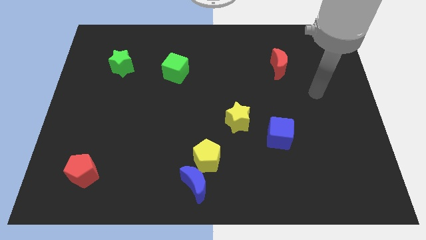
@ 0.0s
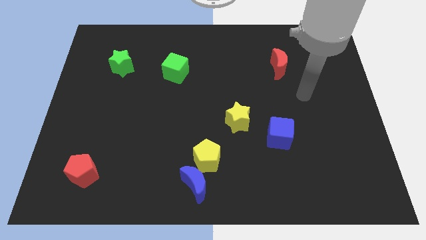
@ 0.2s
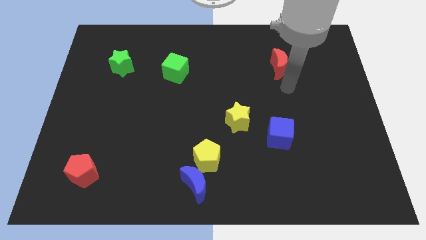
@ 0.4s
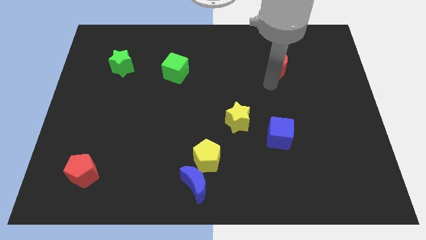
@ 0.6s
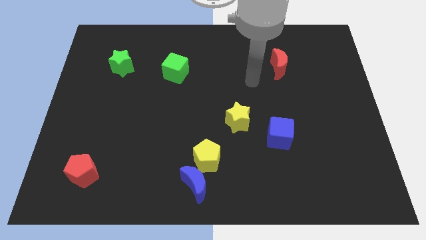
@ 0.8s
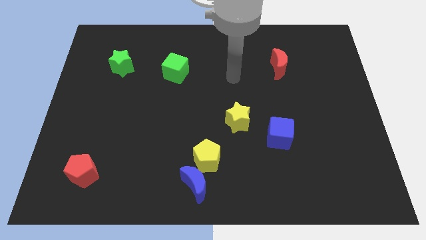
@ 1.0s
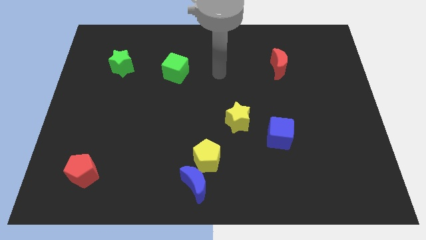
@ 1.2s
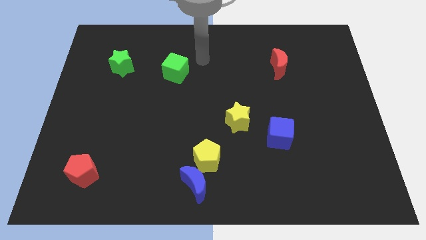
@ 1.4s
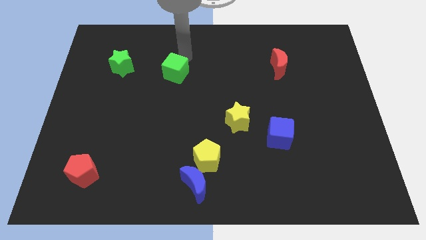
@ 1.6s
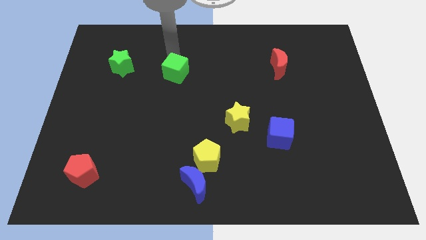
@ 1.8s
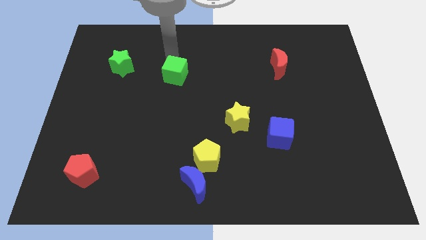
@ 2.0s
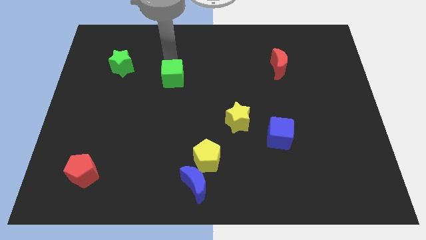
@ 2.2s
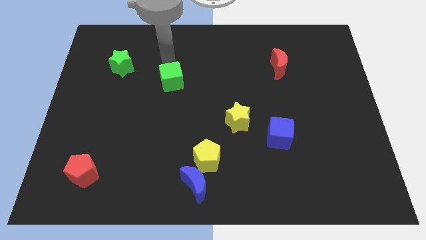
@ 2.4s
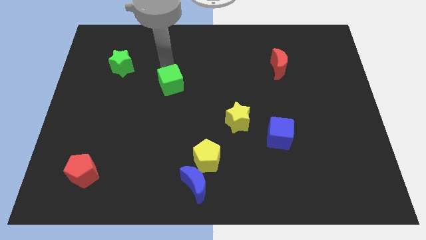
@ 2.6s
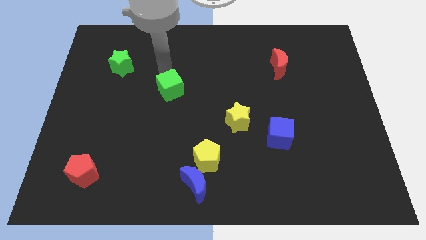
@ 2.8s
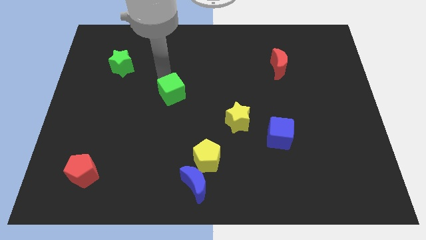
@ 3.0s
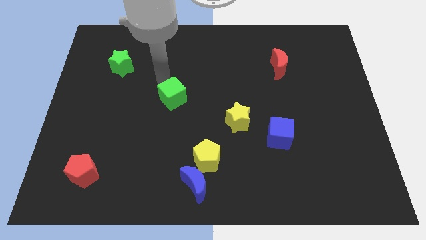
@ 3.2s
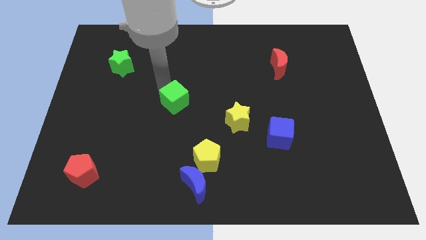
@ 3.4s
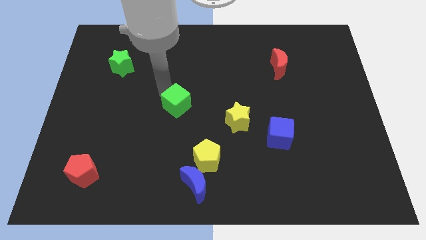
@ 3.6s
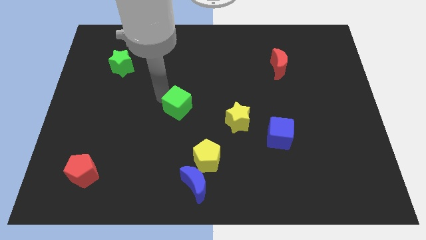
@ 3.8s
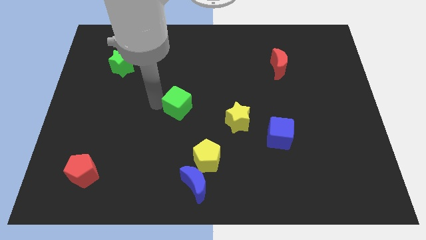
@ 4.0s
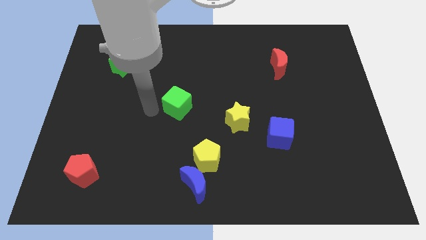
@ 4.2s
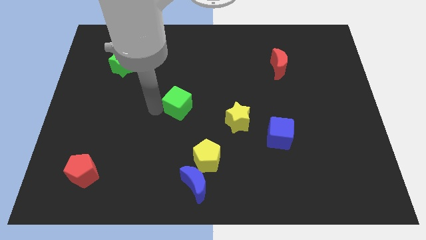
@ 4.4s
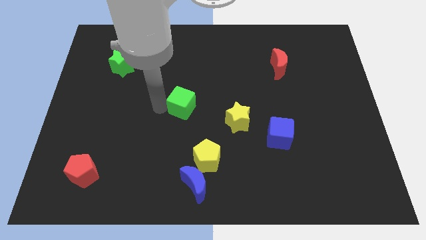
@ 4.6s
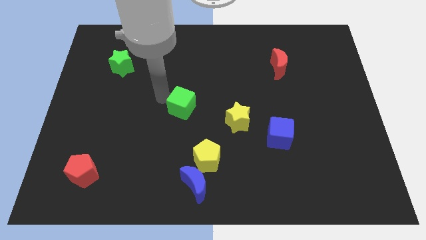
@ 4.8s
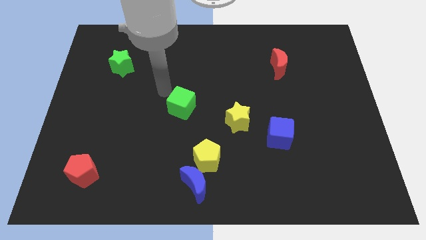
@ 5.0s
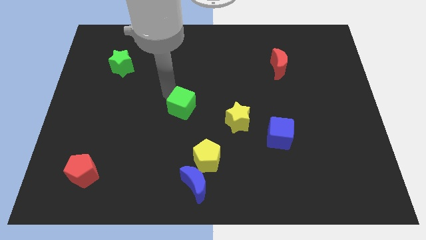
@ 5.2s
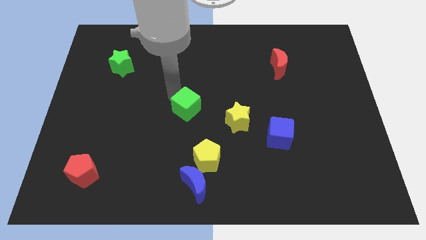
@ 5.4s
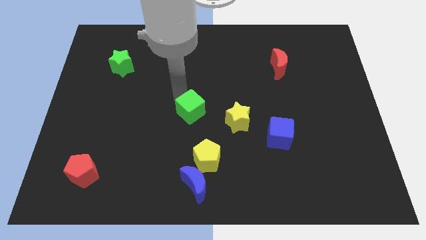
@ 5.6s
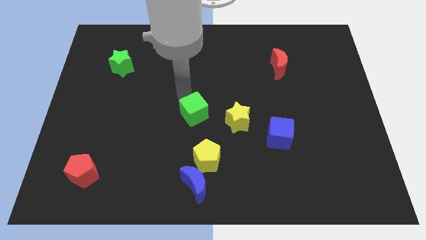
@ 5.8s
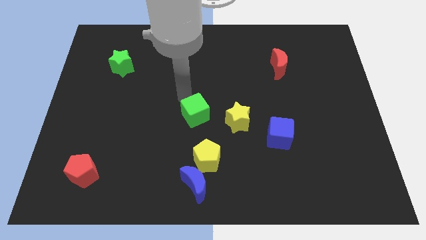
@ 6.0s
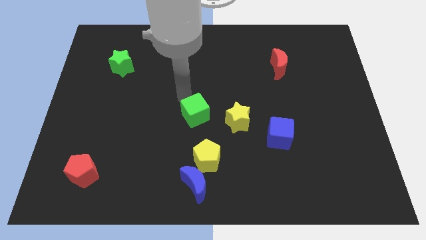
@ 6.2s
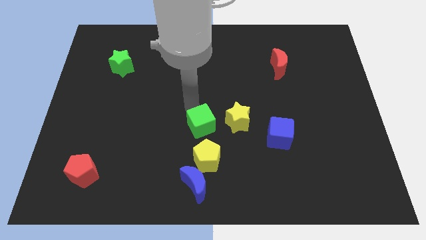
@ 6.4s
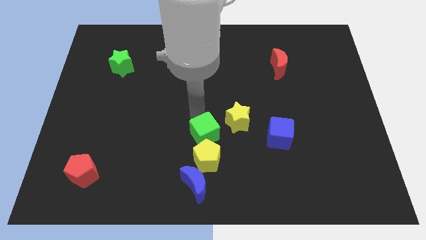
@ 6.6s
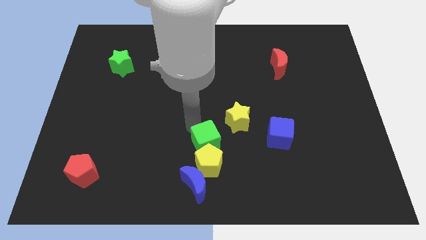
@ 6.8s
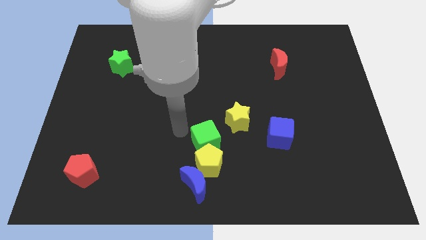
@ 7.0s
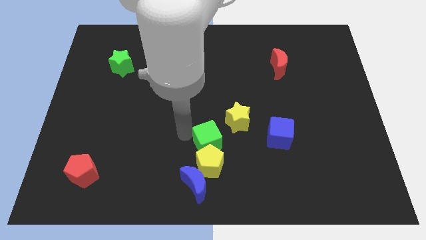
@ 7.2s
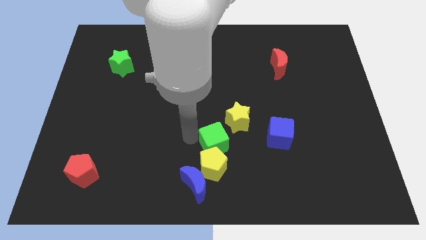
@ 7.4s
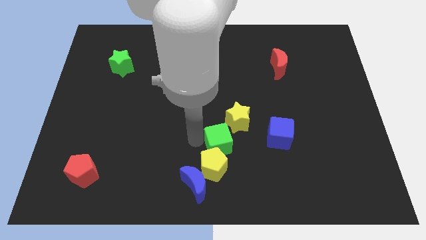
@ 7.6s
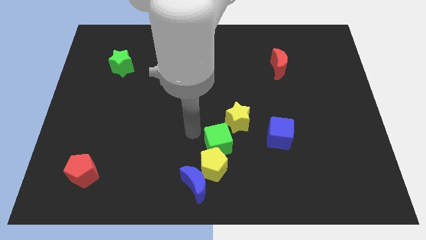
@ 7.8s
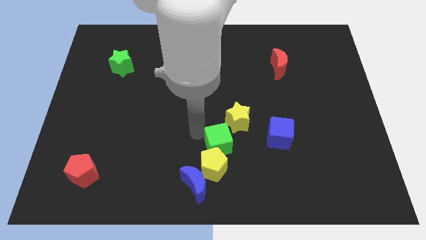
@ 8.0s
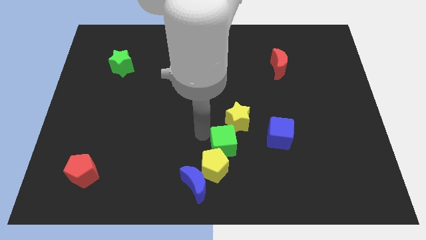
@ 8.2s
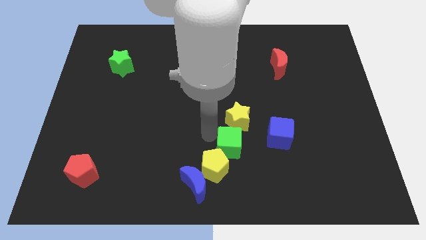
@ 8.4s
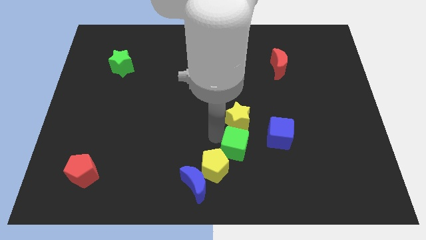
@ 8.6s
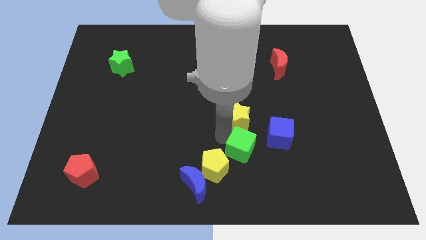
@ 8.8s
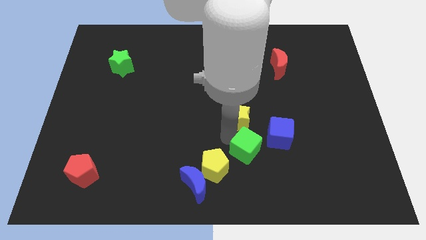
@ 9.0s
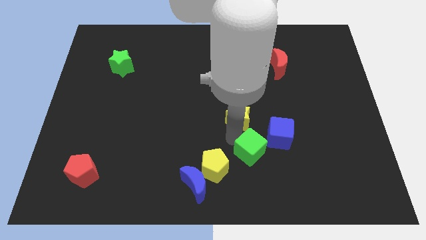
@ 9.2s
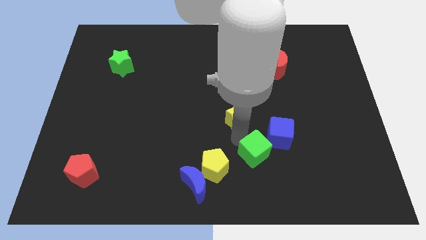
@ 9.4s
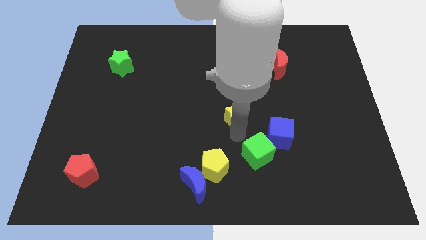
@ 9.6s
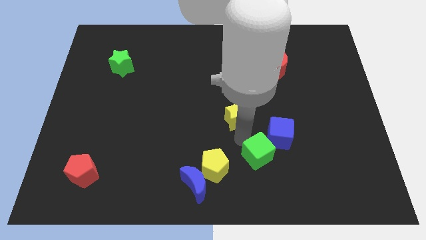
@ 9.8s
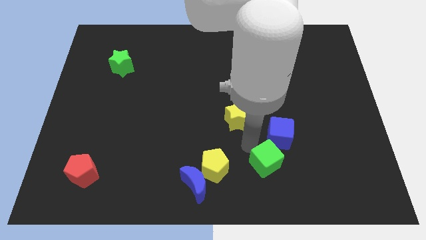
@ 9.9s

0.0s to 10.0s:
move the green cube to the bottom of the blue cube

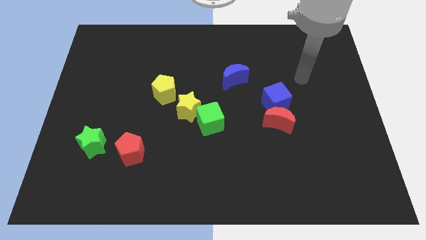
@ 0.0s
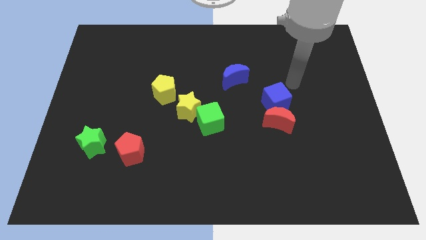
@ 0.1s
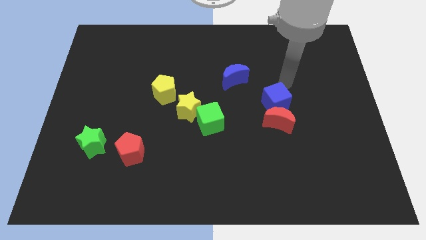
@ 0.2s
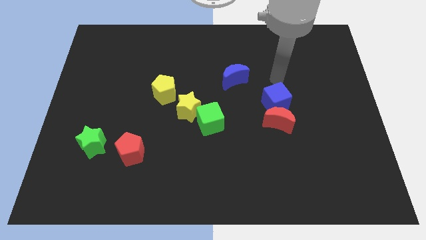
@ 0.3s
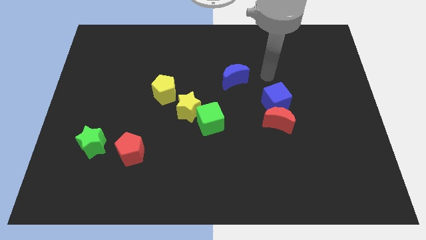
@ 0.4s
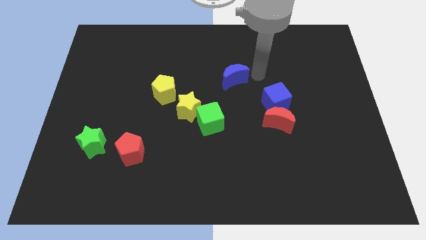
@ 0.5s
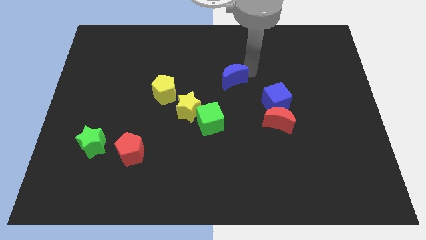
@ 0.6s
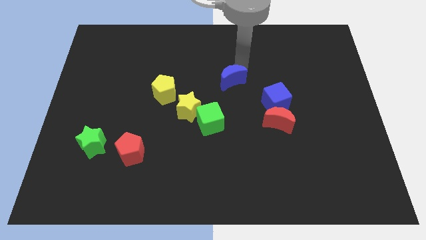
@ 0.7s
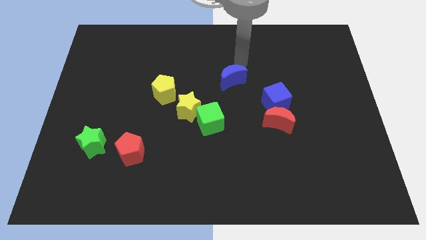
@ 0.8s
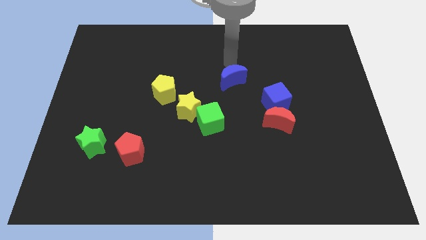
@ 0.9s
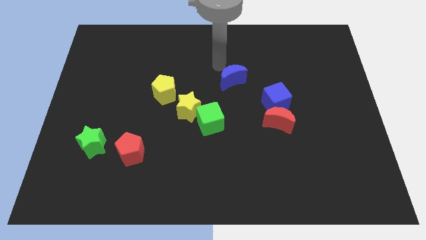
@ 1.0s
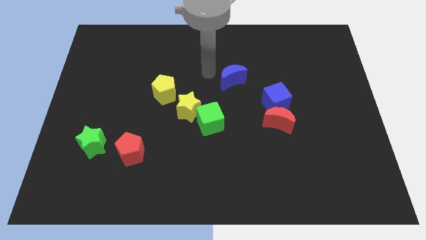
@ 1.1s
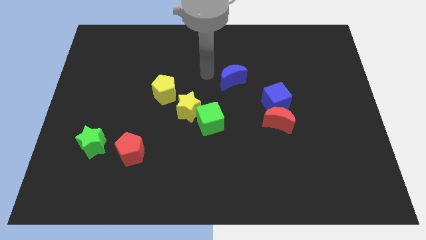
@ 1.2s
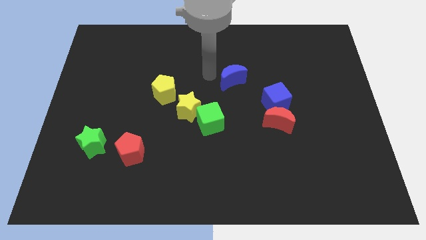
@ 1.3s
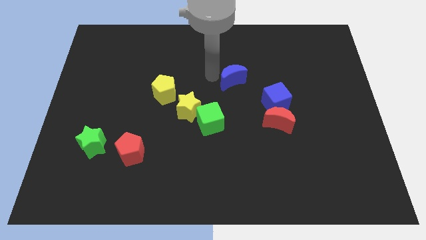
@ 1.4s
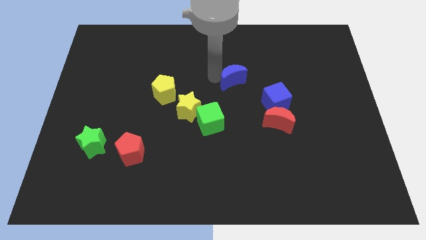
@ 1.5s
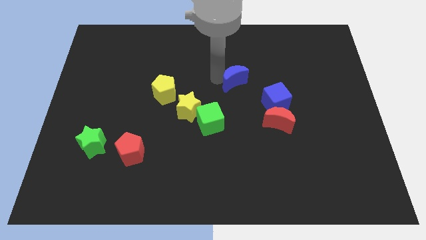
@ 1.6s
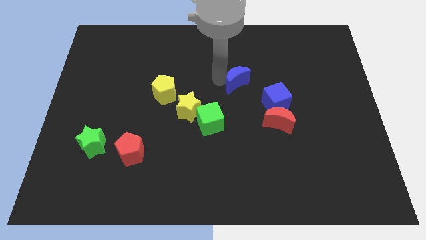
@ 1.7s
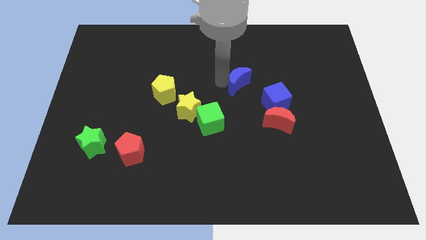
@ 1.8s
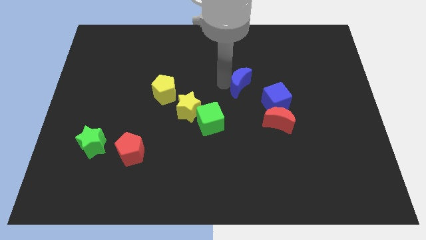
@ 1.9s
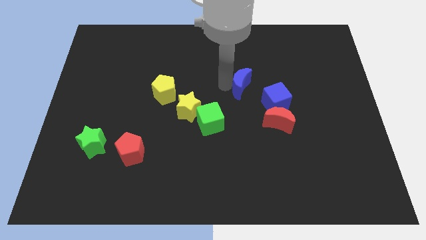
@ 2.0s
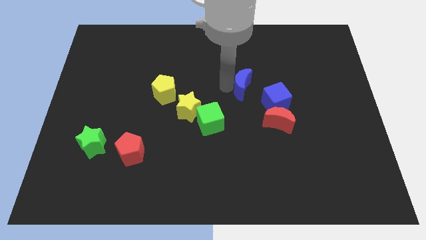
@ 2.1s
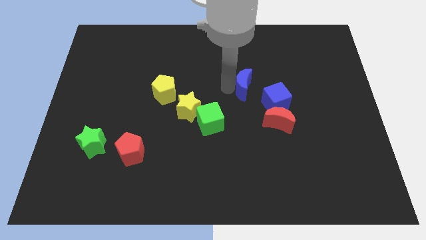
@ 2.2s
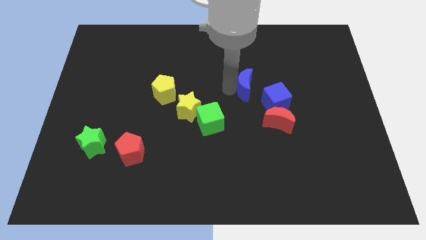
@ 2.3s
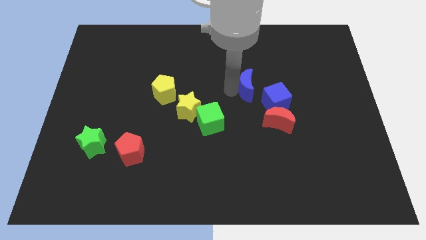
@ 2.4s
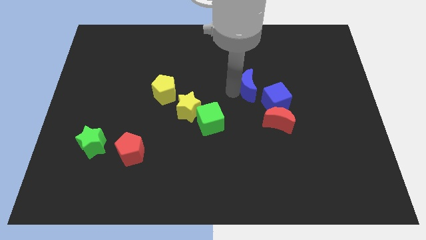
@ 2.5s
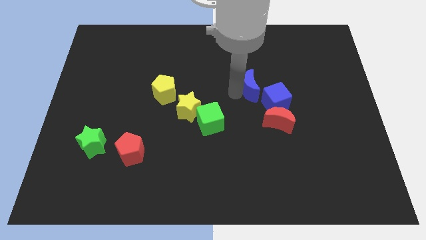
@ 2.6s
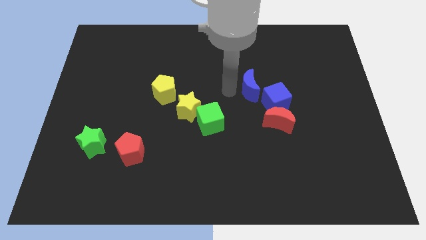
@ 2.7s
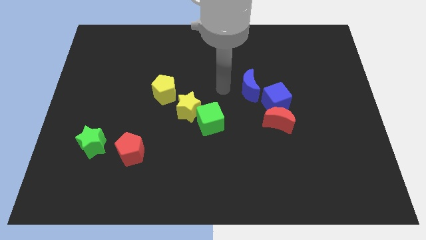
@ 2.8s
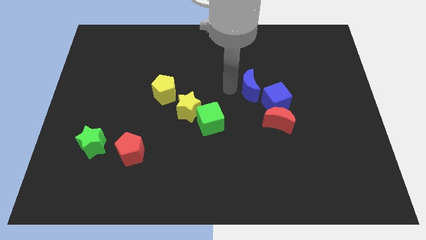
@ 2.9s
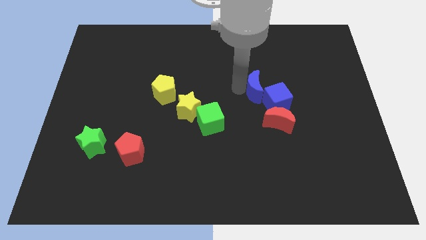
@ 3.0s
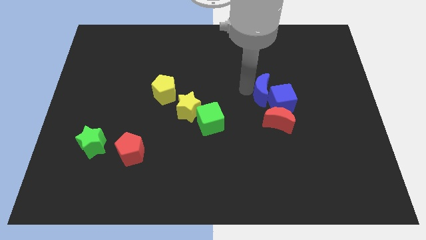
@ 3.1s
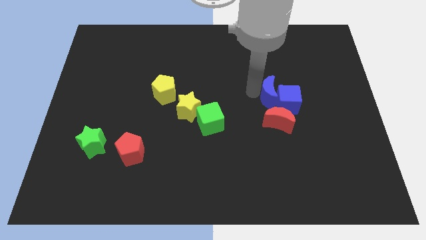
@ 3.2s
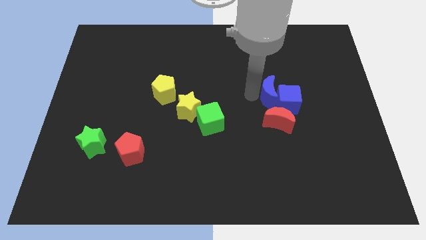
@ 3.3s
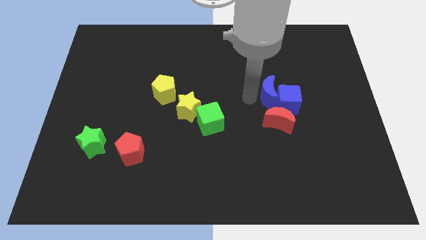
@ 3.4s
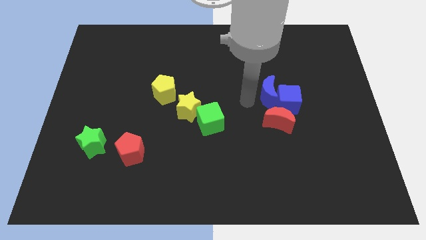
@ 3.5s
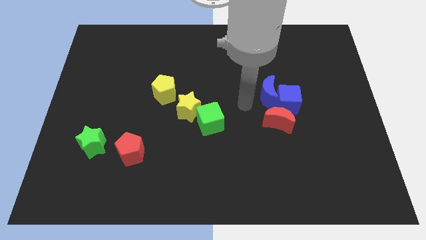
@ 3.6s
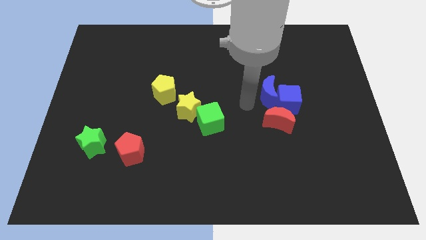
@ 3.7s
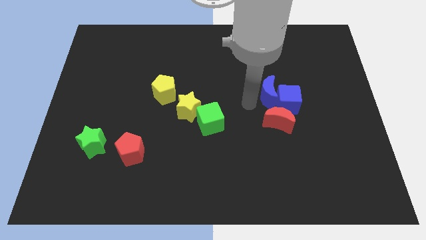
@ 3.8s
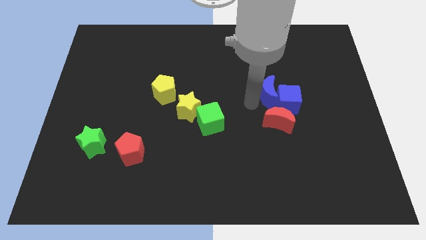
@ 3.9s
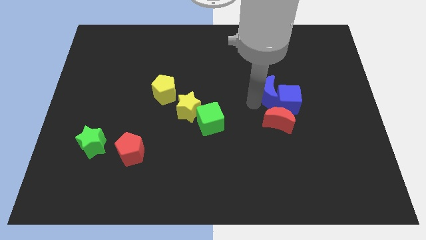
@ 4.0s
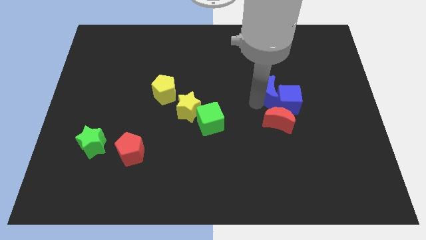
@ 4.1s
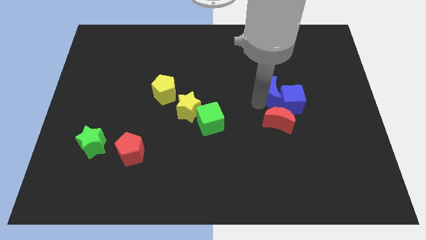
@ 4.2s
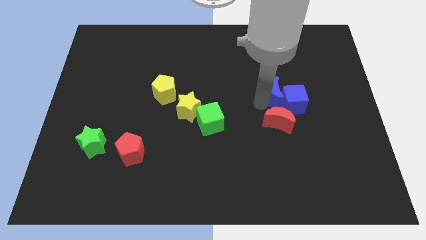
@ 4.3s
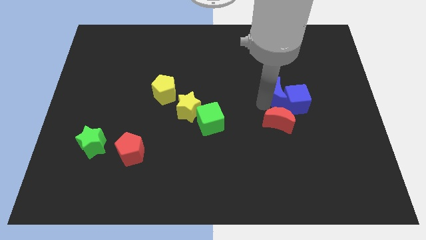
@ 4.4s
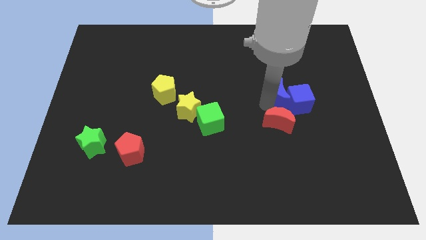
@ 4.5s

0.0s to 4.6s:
push the blue moon to the top right side of the red moon
